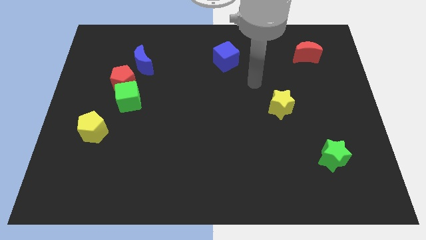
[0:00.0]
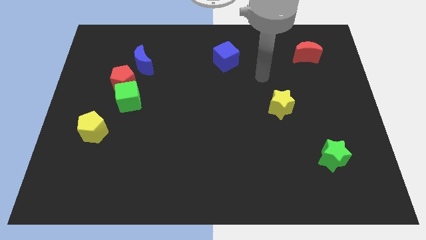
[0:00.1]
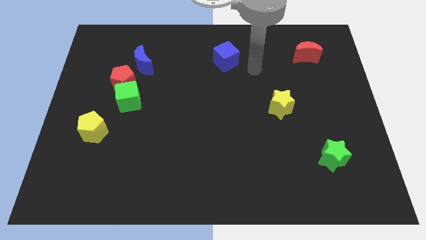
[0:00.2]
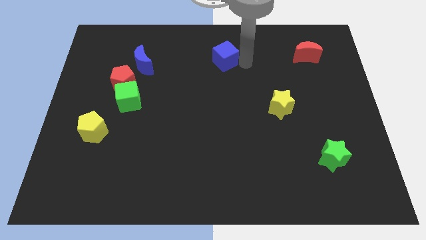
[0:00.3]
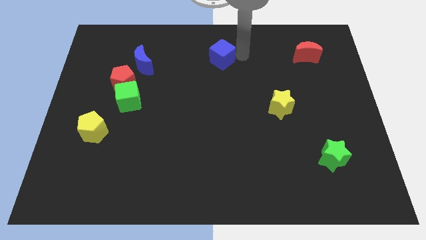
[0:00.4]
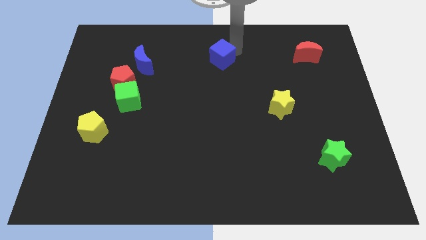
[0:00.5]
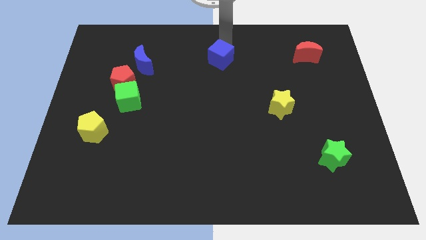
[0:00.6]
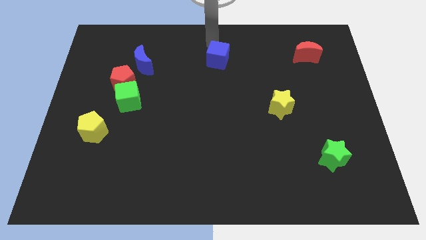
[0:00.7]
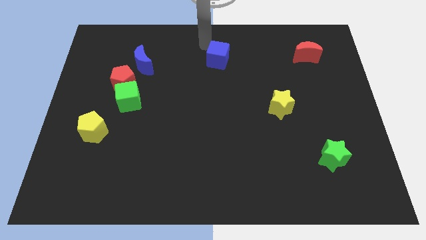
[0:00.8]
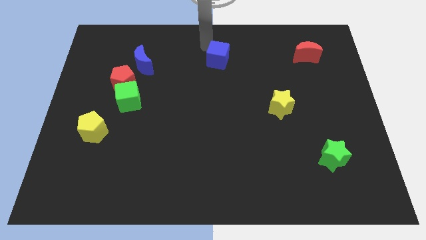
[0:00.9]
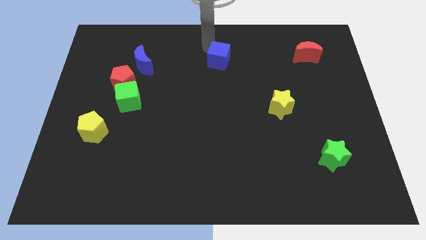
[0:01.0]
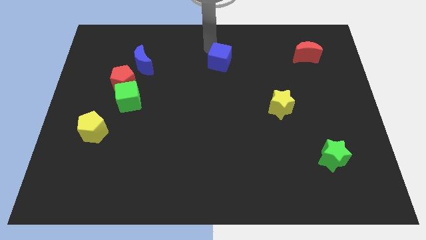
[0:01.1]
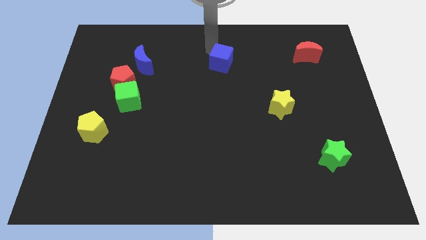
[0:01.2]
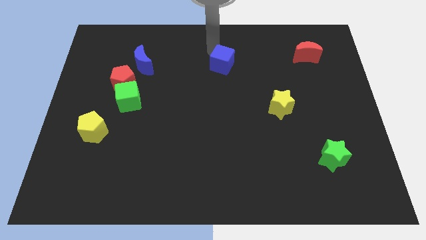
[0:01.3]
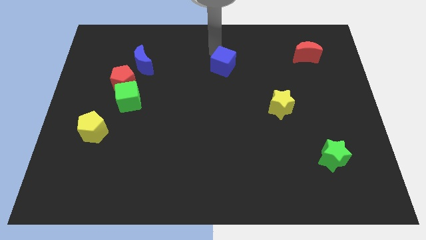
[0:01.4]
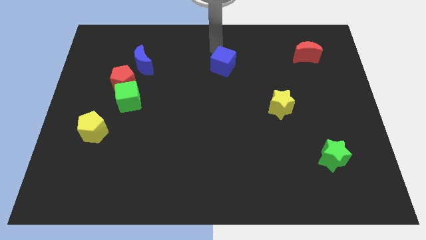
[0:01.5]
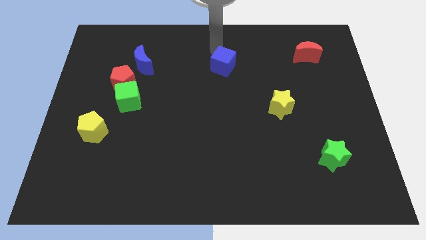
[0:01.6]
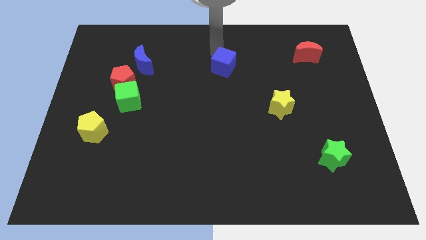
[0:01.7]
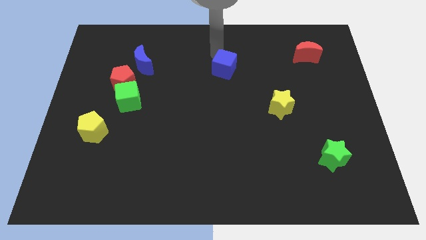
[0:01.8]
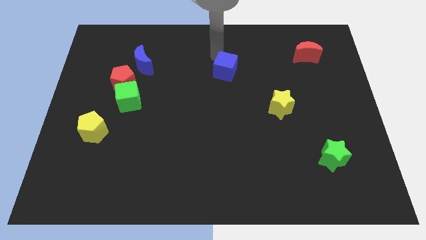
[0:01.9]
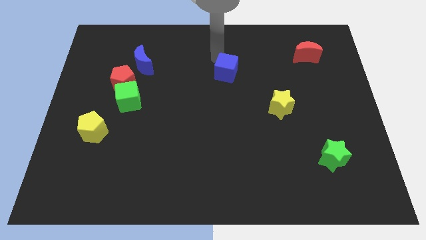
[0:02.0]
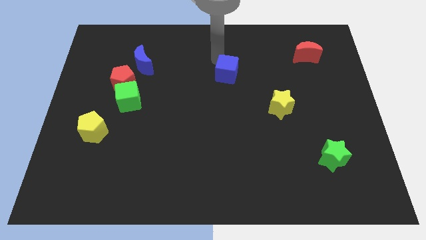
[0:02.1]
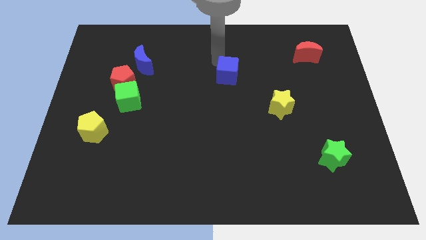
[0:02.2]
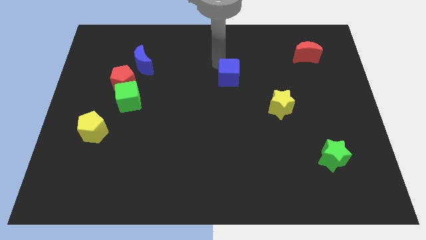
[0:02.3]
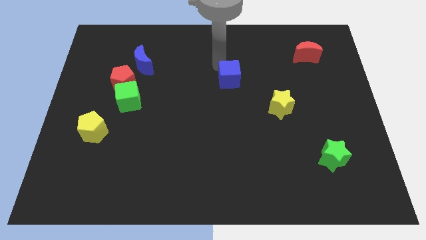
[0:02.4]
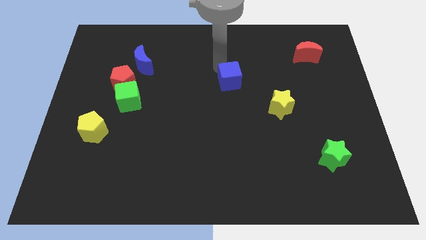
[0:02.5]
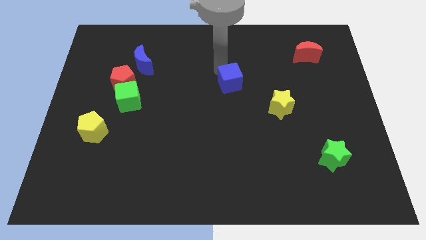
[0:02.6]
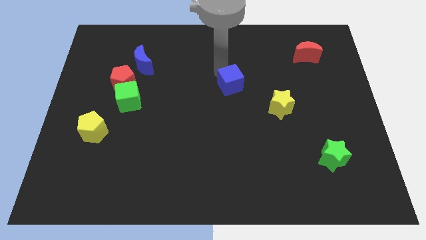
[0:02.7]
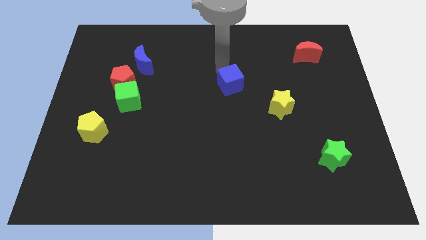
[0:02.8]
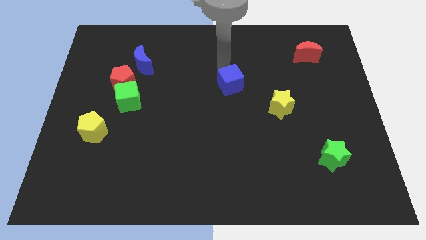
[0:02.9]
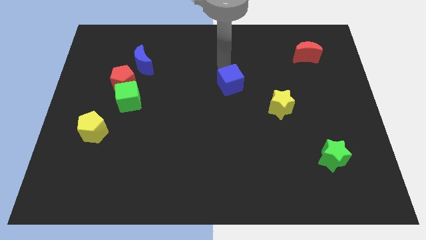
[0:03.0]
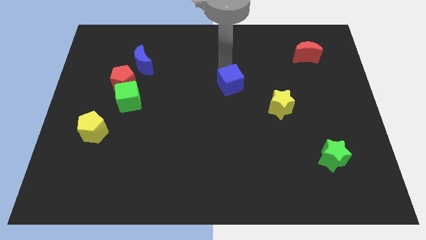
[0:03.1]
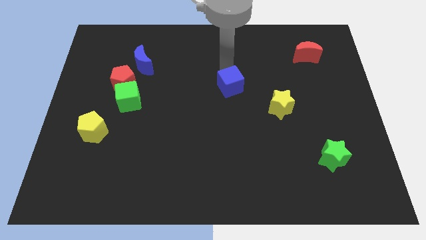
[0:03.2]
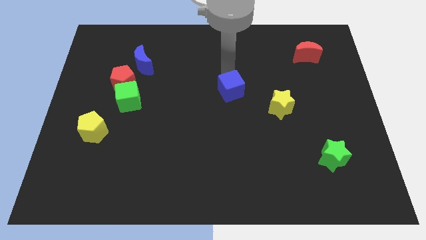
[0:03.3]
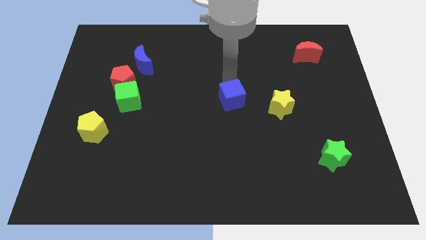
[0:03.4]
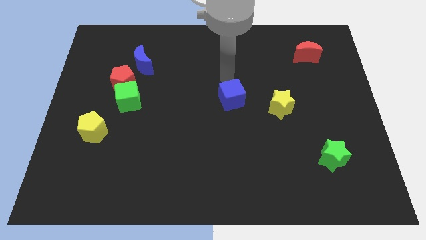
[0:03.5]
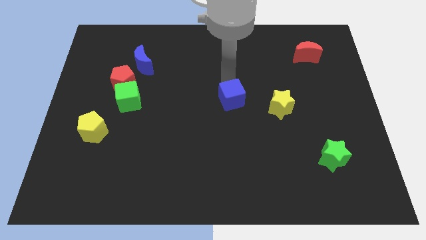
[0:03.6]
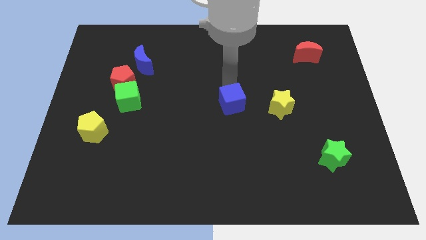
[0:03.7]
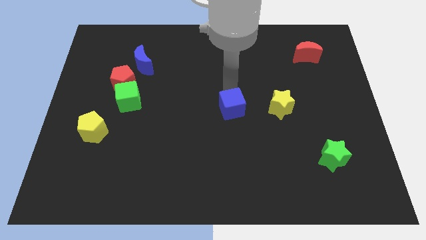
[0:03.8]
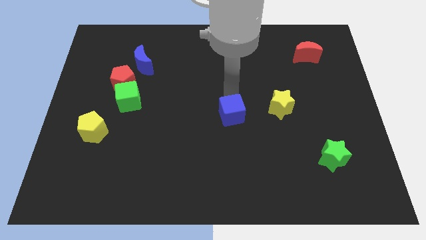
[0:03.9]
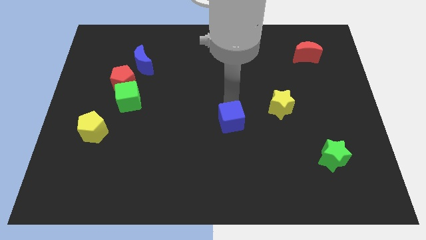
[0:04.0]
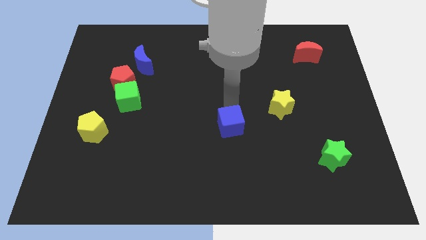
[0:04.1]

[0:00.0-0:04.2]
push the blue cube down

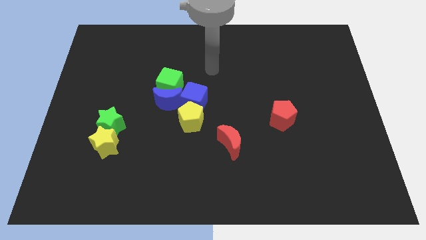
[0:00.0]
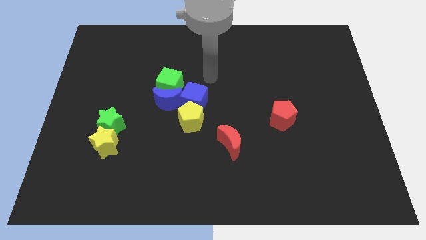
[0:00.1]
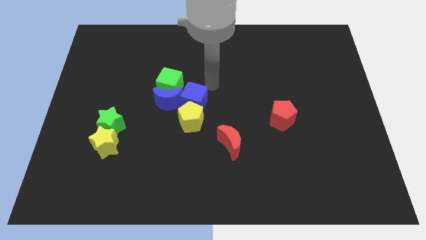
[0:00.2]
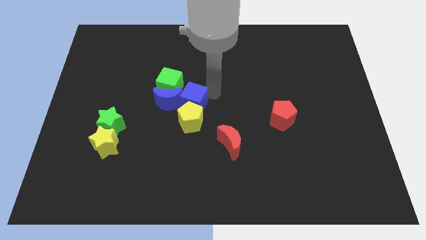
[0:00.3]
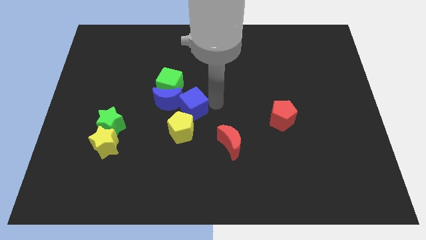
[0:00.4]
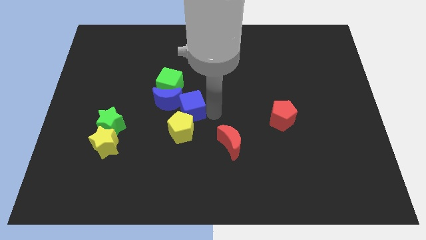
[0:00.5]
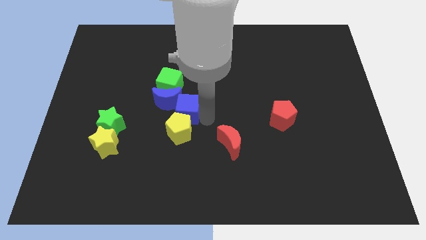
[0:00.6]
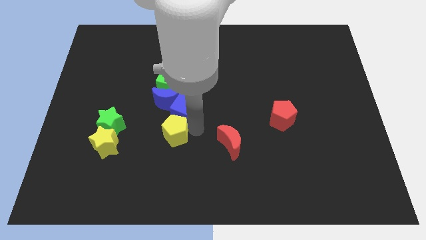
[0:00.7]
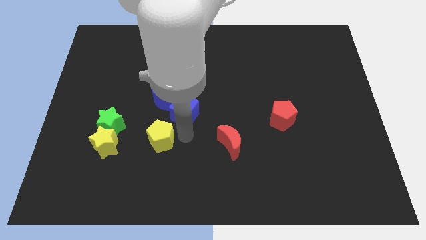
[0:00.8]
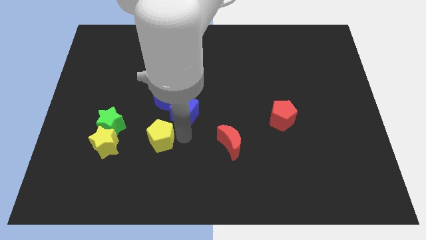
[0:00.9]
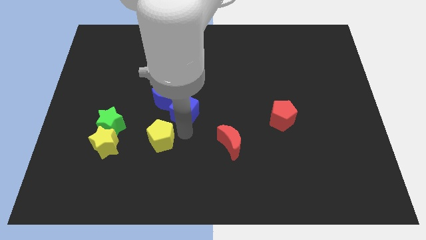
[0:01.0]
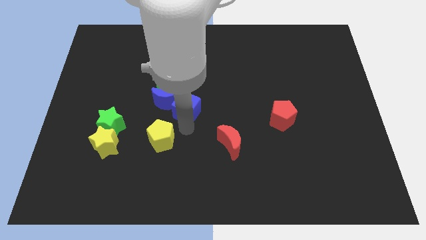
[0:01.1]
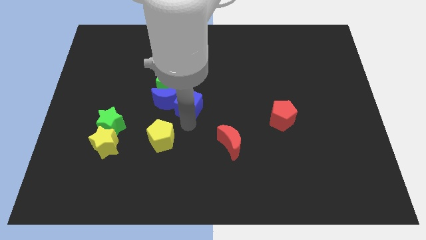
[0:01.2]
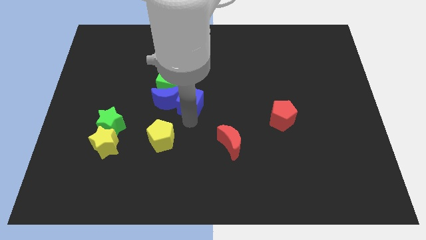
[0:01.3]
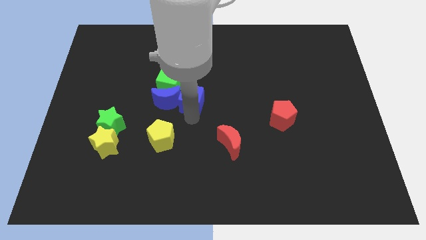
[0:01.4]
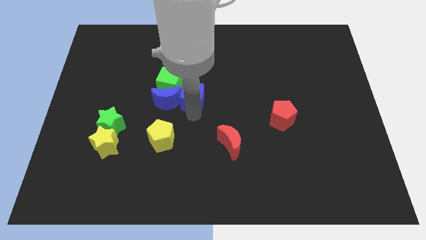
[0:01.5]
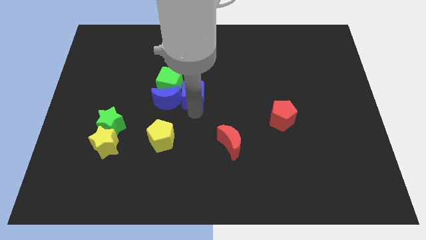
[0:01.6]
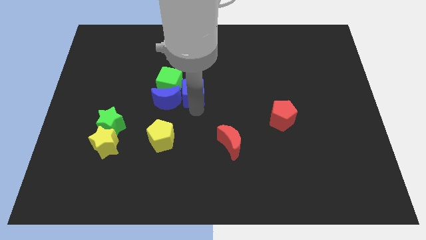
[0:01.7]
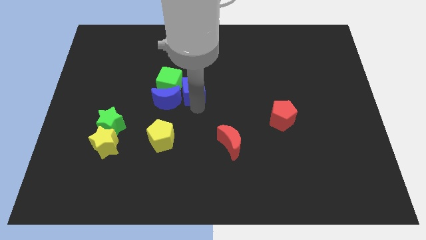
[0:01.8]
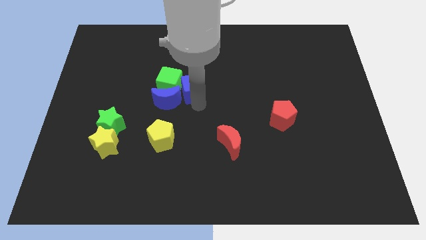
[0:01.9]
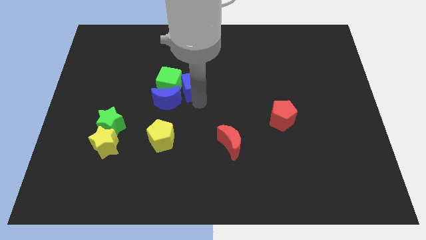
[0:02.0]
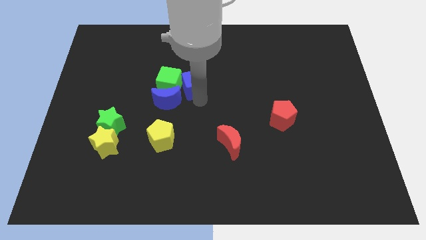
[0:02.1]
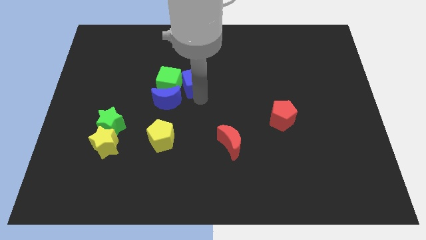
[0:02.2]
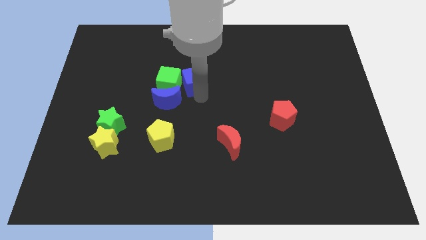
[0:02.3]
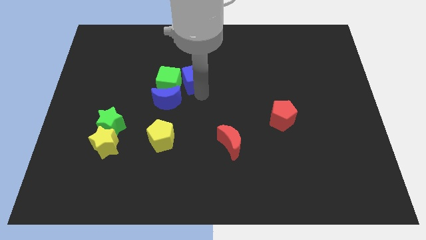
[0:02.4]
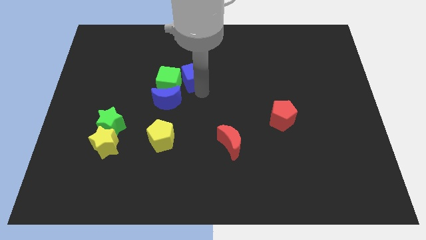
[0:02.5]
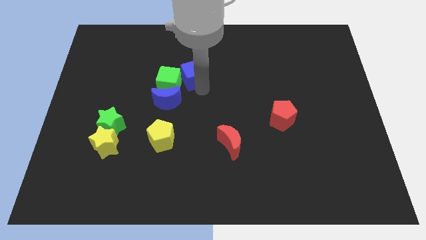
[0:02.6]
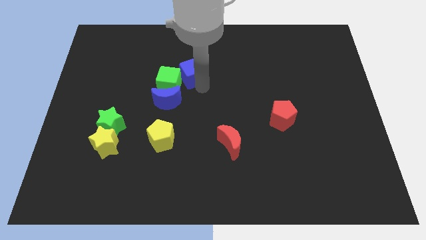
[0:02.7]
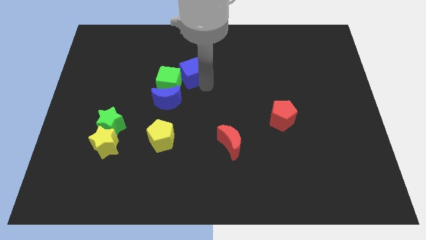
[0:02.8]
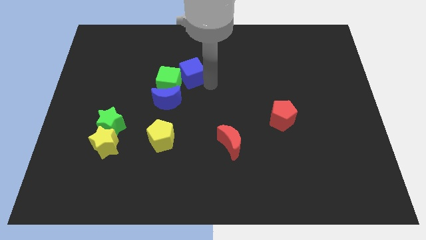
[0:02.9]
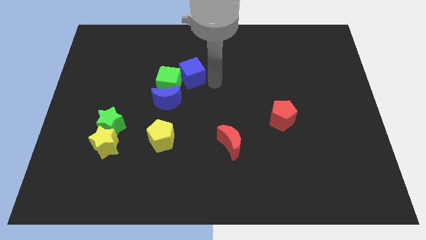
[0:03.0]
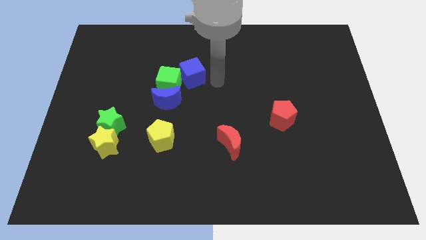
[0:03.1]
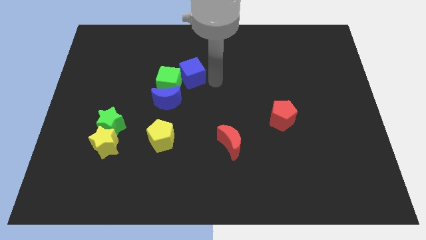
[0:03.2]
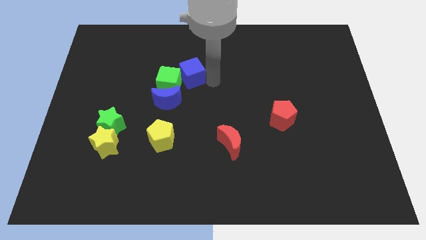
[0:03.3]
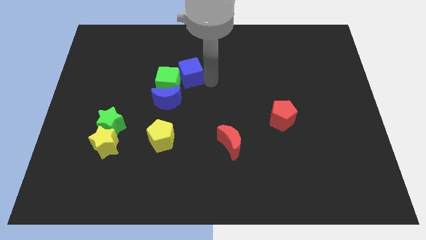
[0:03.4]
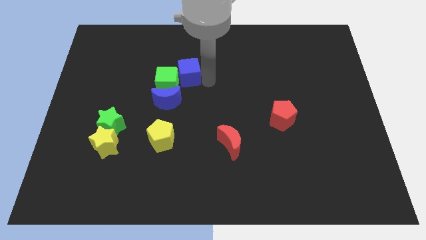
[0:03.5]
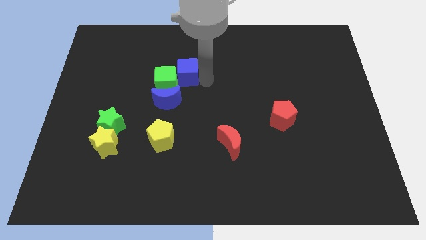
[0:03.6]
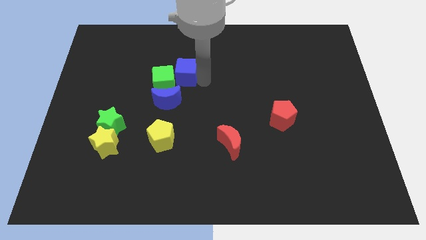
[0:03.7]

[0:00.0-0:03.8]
slightly push the blue cube upwards and left
